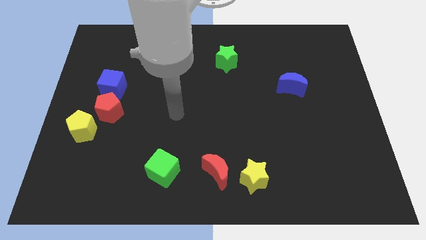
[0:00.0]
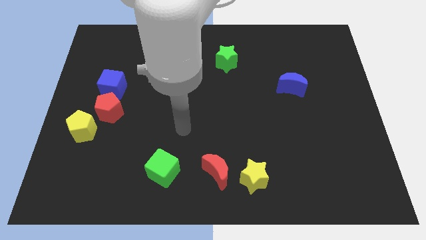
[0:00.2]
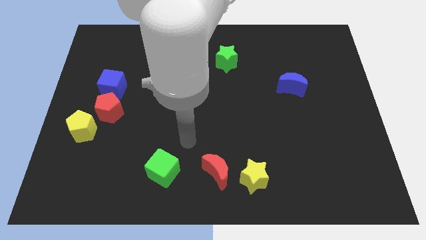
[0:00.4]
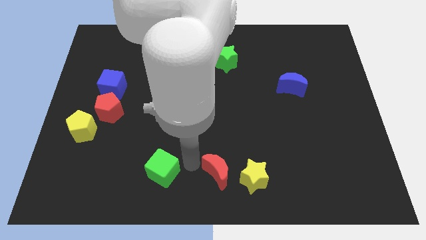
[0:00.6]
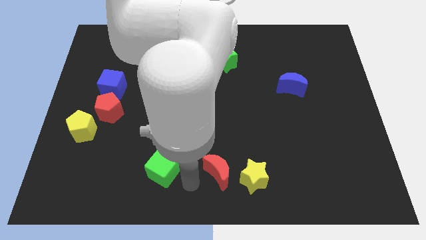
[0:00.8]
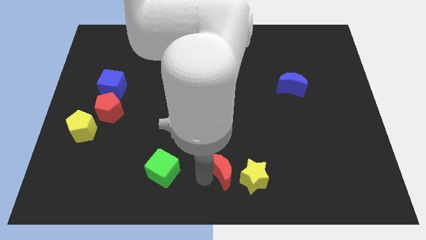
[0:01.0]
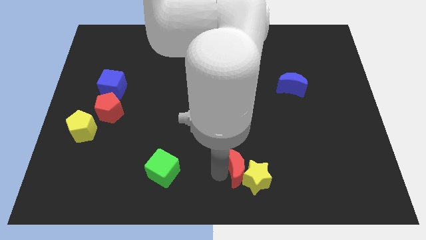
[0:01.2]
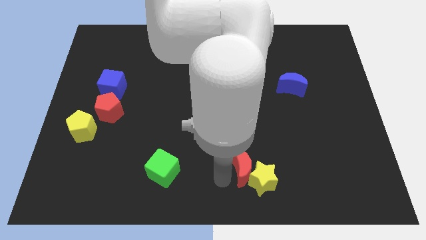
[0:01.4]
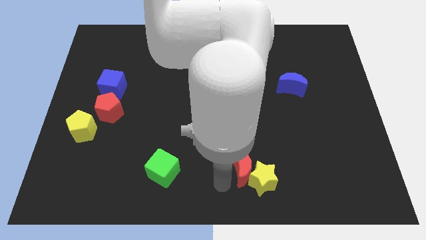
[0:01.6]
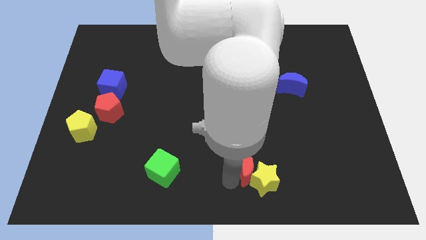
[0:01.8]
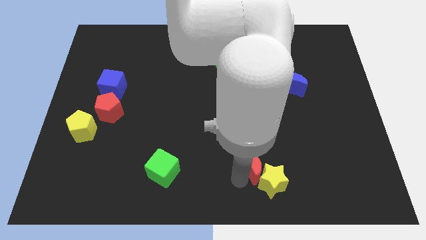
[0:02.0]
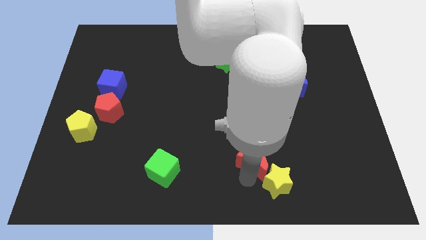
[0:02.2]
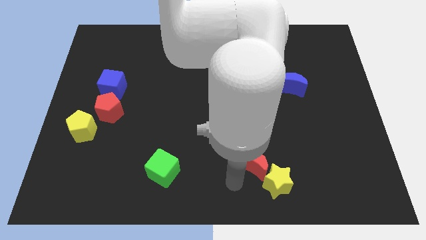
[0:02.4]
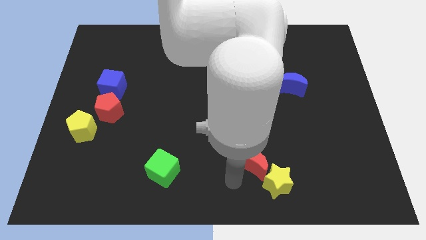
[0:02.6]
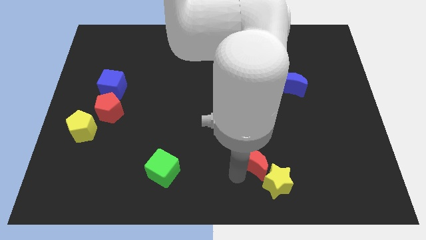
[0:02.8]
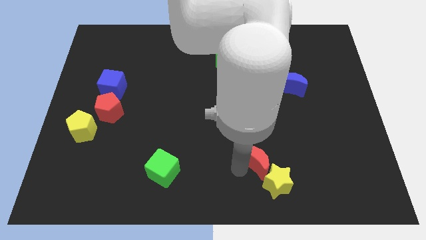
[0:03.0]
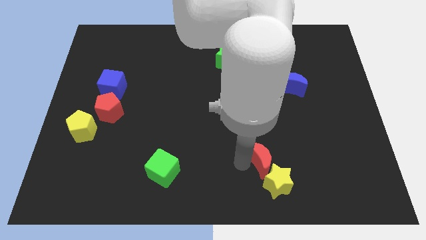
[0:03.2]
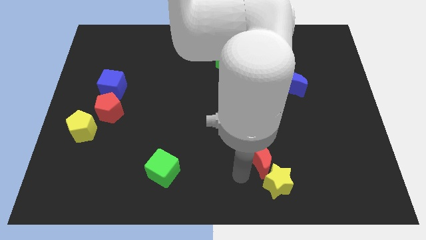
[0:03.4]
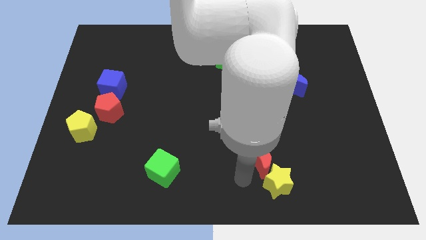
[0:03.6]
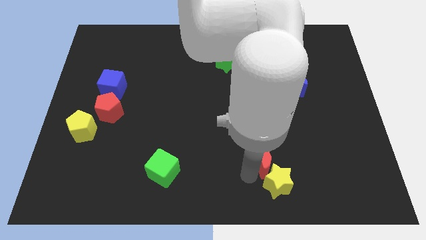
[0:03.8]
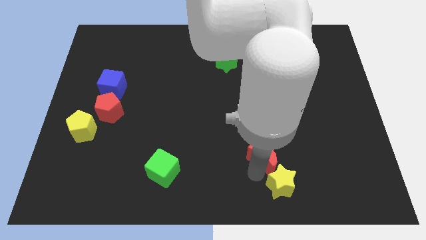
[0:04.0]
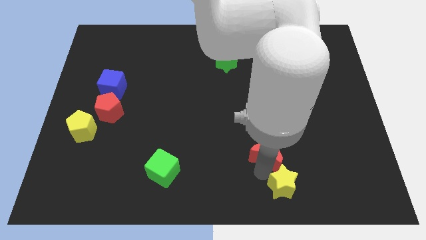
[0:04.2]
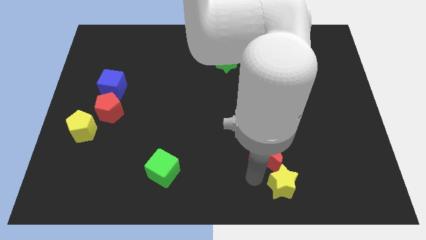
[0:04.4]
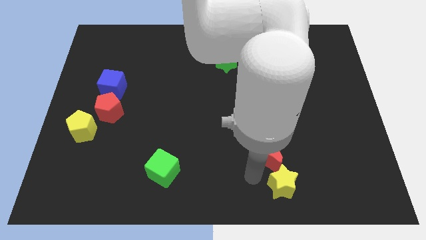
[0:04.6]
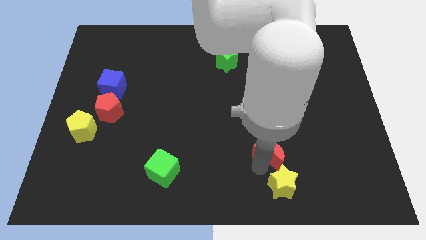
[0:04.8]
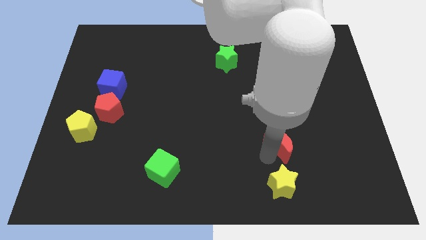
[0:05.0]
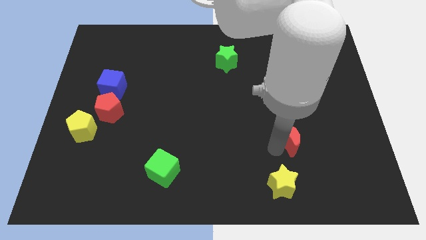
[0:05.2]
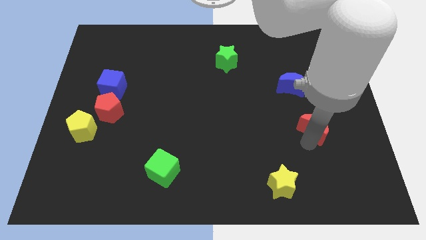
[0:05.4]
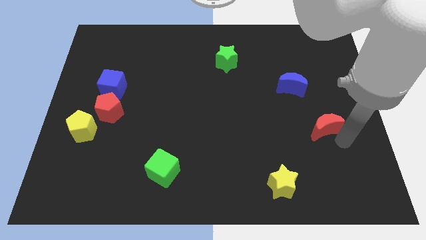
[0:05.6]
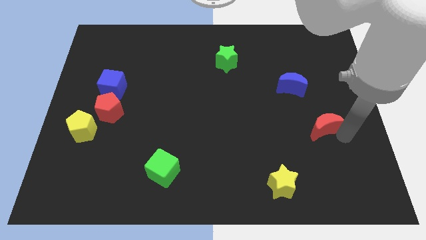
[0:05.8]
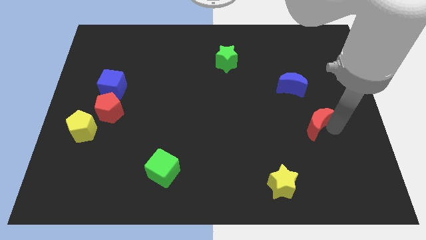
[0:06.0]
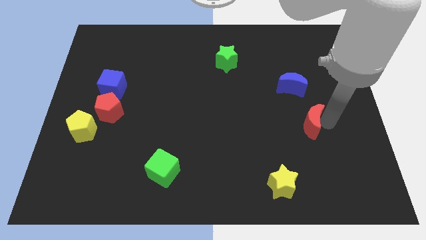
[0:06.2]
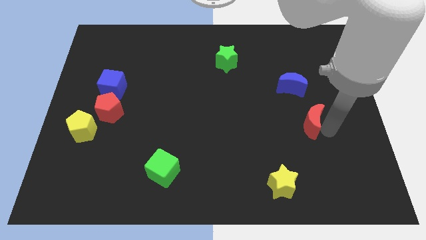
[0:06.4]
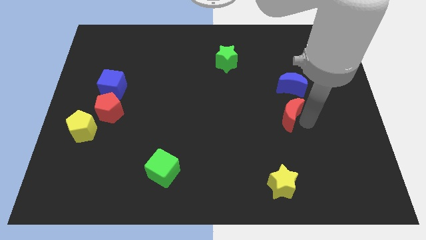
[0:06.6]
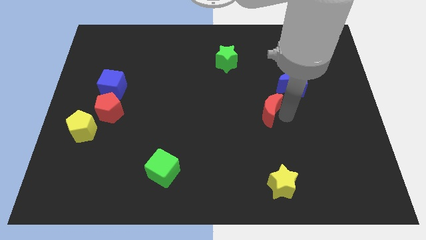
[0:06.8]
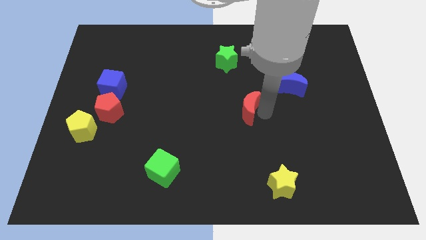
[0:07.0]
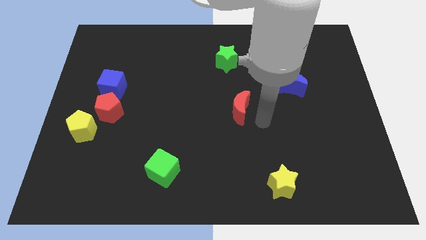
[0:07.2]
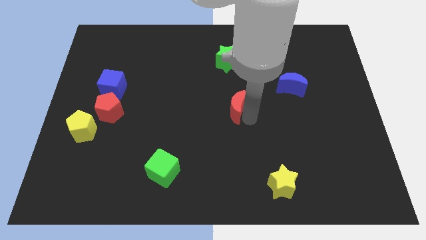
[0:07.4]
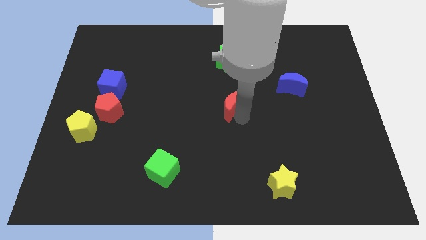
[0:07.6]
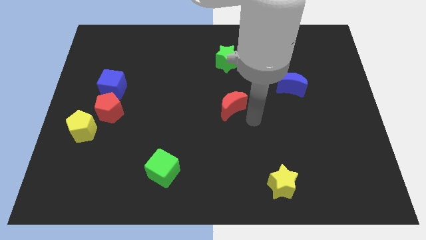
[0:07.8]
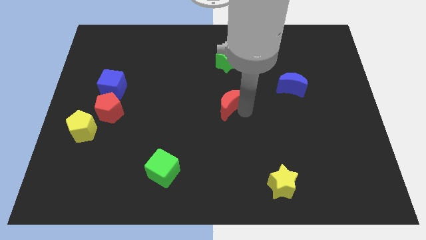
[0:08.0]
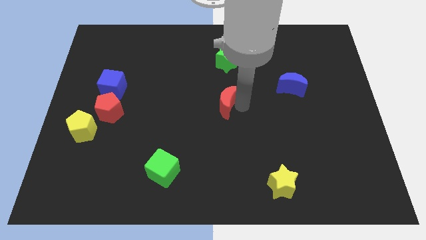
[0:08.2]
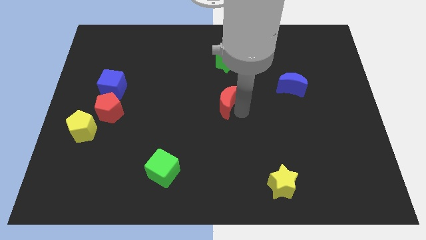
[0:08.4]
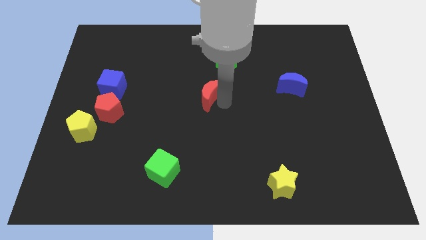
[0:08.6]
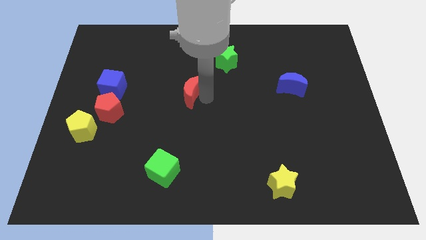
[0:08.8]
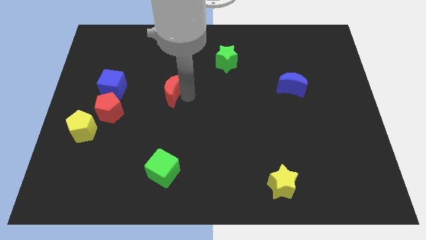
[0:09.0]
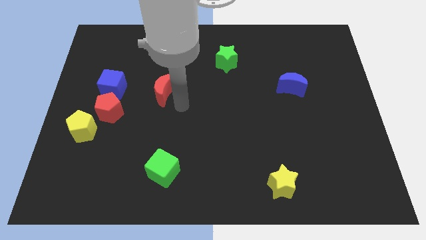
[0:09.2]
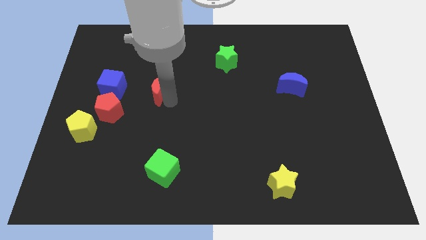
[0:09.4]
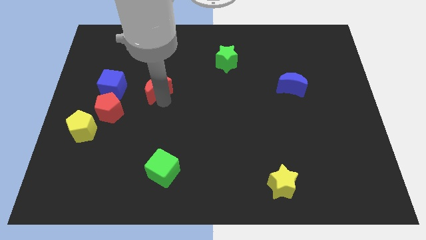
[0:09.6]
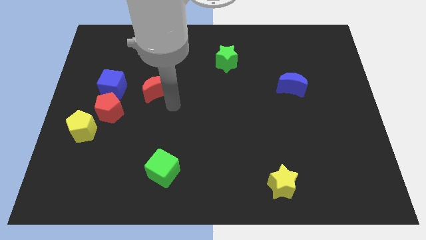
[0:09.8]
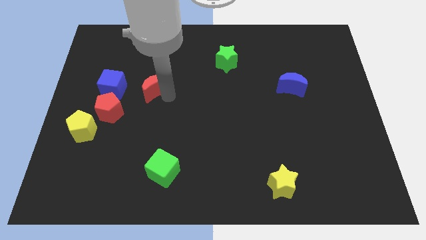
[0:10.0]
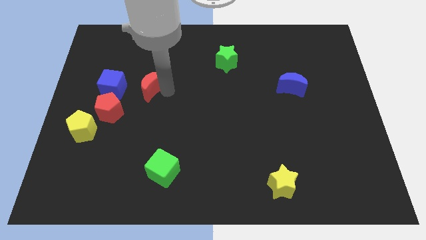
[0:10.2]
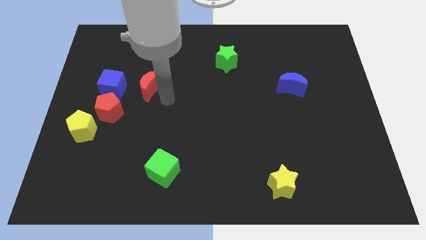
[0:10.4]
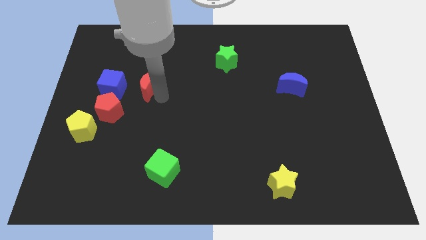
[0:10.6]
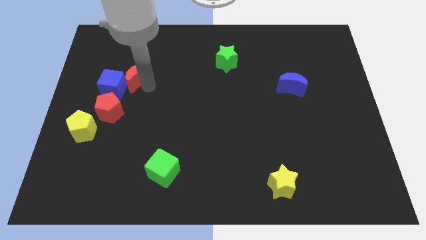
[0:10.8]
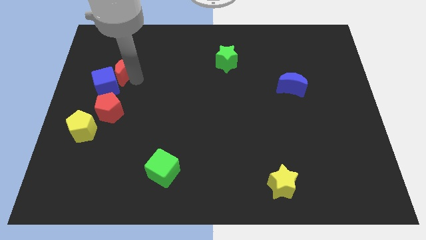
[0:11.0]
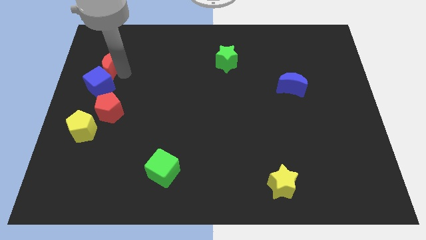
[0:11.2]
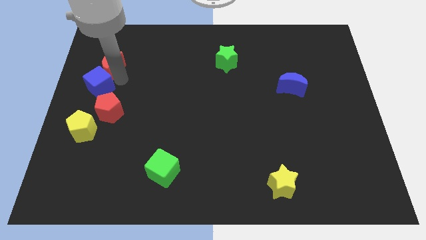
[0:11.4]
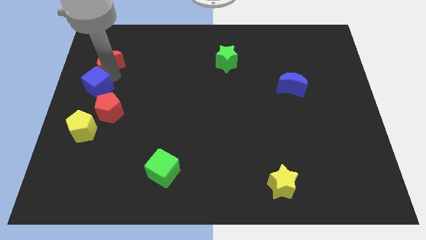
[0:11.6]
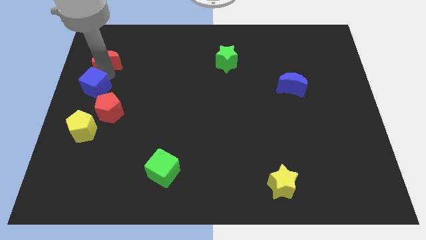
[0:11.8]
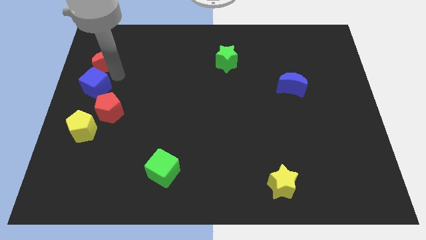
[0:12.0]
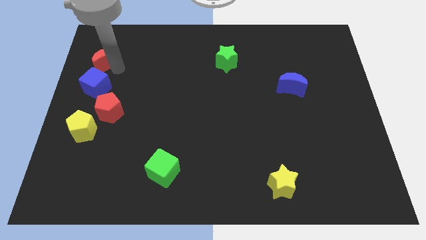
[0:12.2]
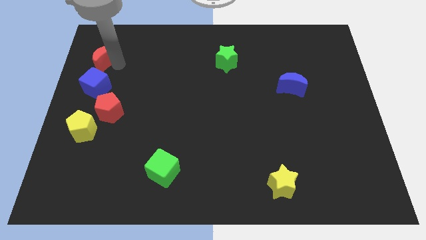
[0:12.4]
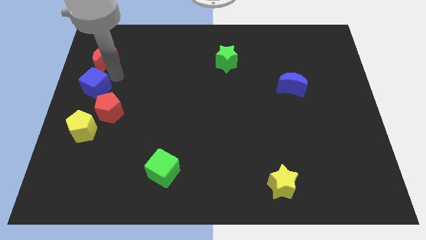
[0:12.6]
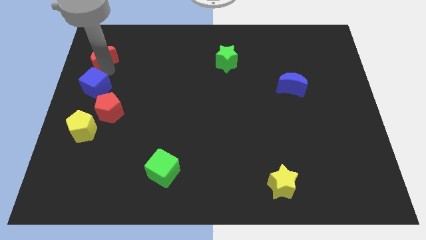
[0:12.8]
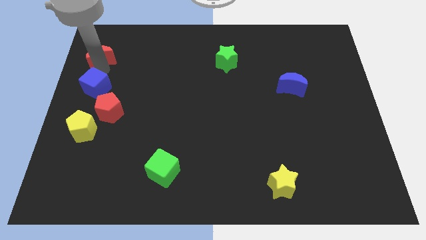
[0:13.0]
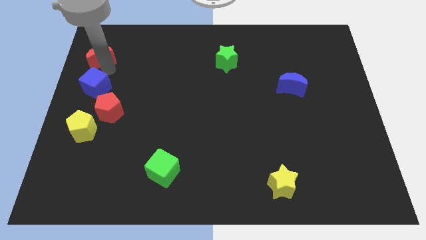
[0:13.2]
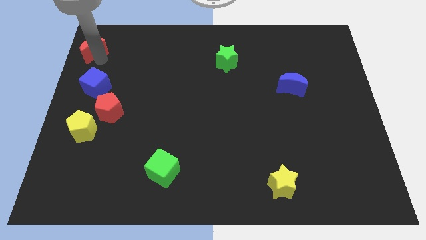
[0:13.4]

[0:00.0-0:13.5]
push the red moon to the top left corner
